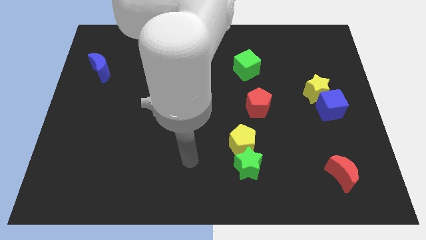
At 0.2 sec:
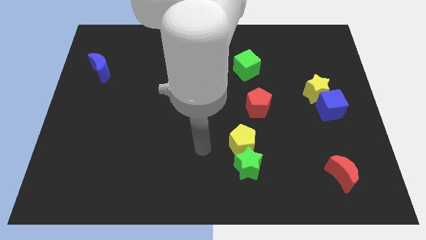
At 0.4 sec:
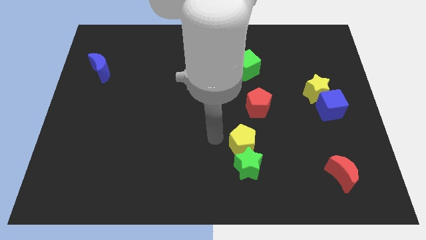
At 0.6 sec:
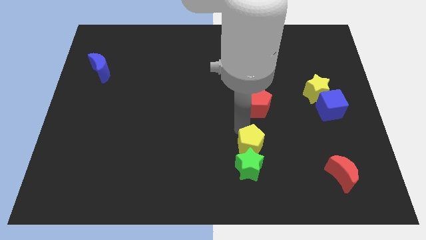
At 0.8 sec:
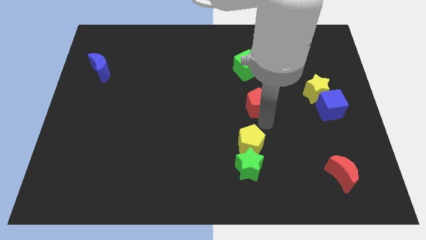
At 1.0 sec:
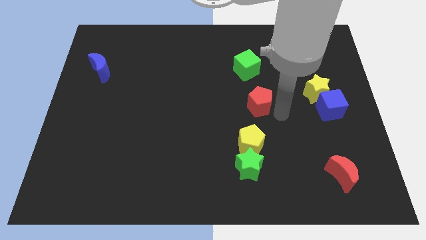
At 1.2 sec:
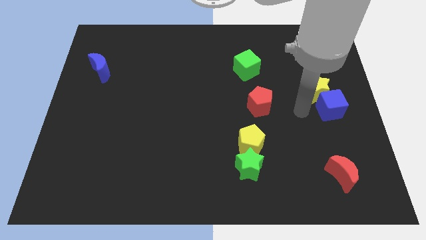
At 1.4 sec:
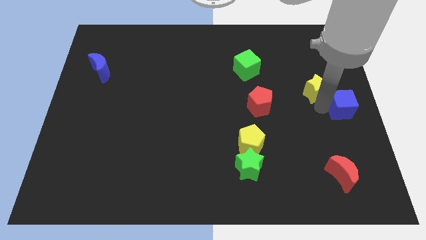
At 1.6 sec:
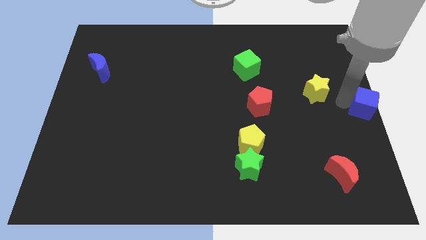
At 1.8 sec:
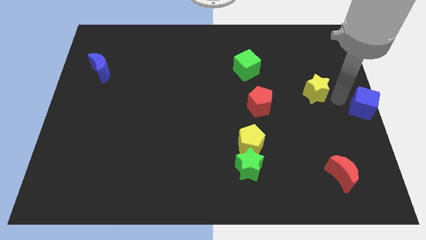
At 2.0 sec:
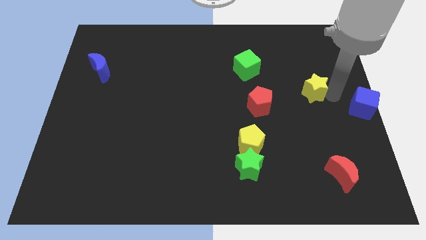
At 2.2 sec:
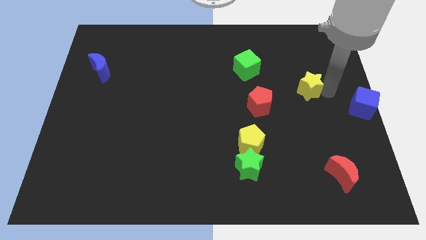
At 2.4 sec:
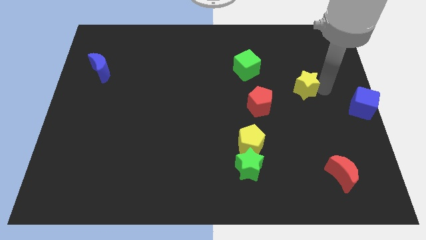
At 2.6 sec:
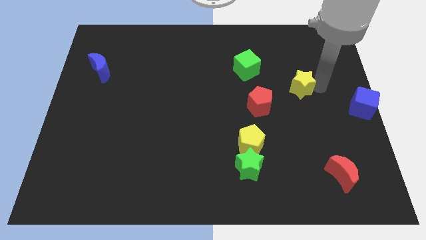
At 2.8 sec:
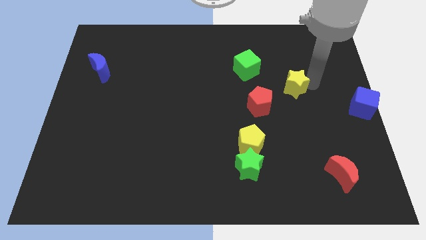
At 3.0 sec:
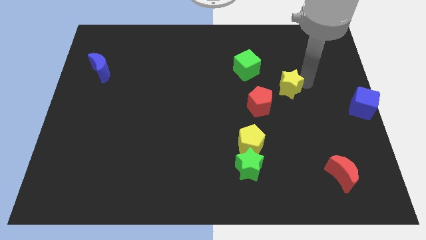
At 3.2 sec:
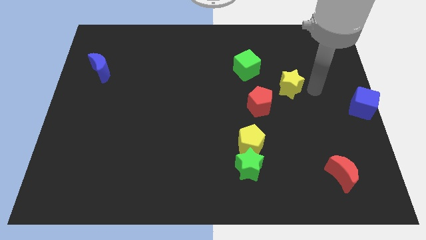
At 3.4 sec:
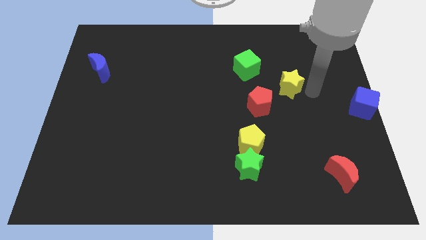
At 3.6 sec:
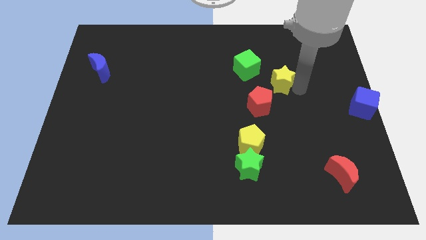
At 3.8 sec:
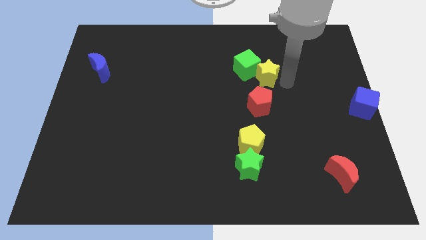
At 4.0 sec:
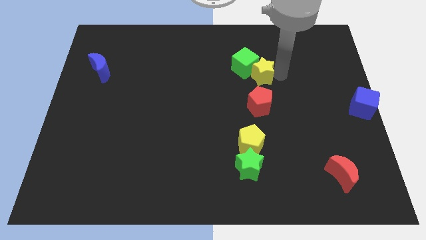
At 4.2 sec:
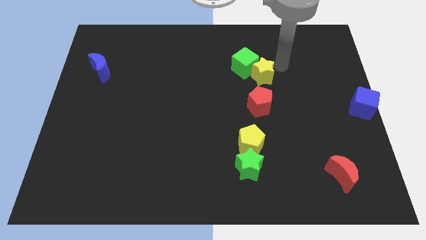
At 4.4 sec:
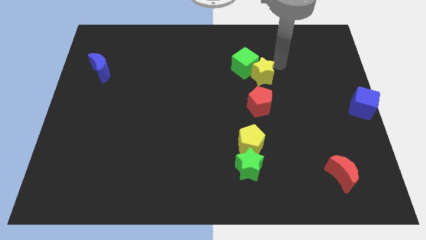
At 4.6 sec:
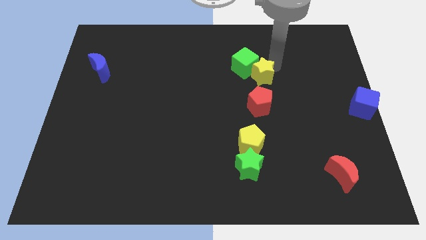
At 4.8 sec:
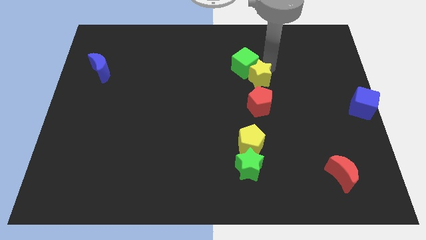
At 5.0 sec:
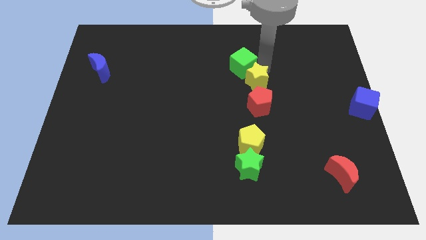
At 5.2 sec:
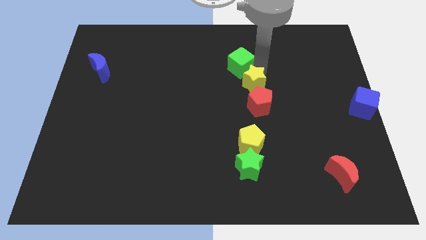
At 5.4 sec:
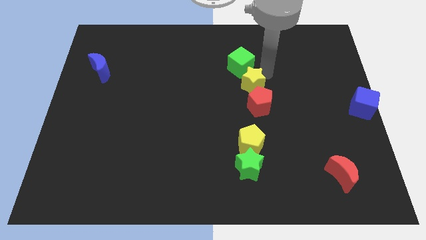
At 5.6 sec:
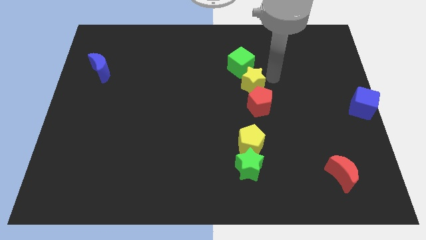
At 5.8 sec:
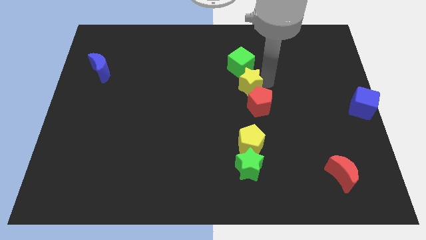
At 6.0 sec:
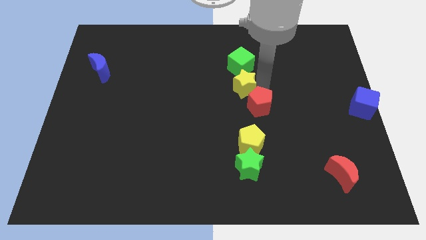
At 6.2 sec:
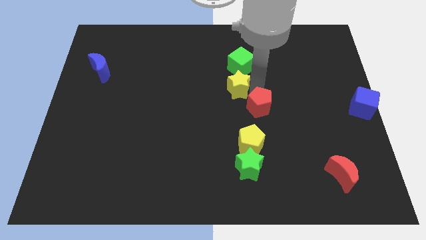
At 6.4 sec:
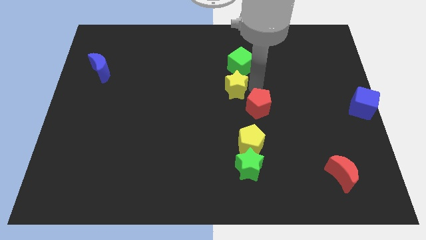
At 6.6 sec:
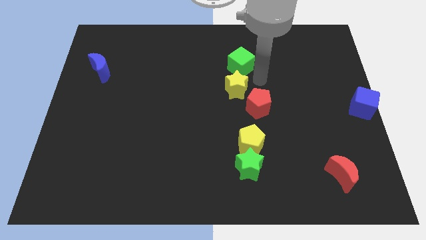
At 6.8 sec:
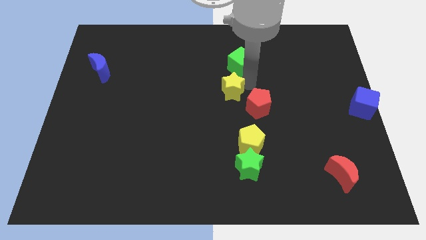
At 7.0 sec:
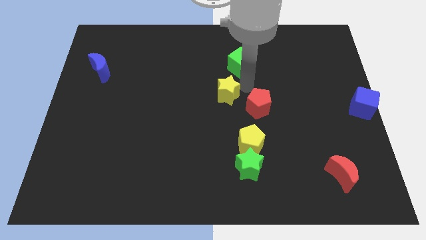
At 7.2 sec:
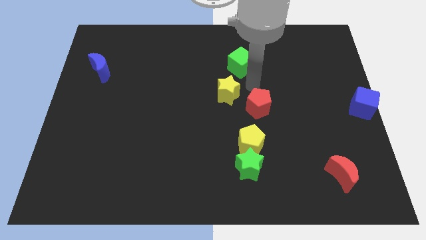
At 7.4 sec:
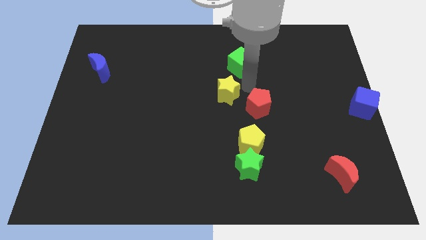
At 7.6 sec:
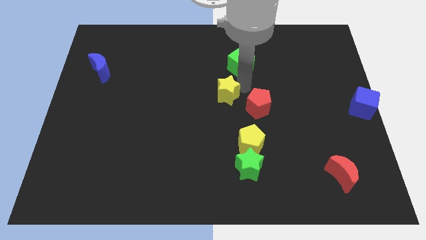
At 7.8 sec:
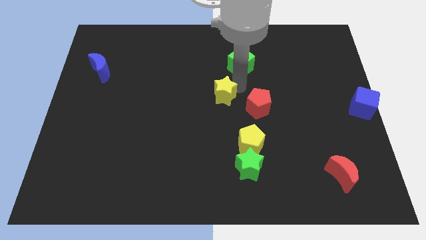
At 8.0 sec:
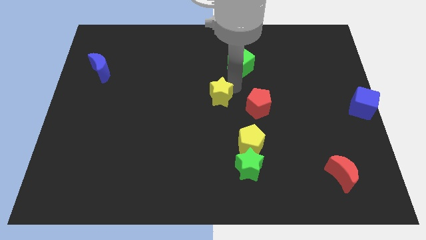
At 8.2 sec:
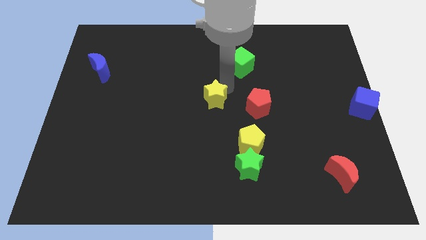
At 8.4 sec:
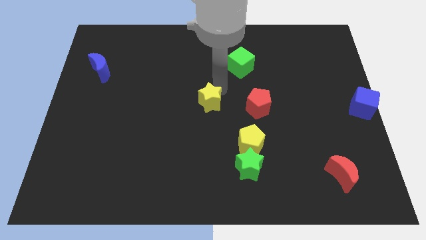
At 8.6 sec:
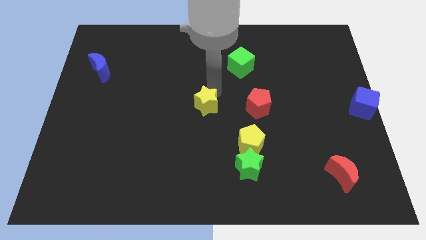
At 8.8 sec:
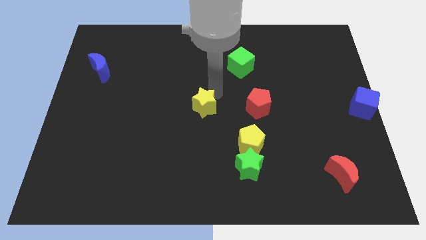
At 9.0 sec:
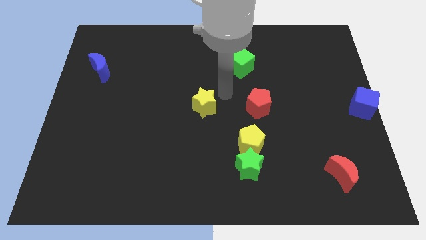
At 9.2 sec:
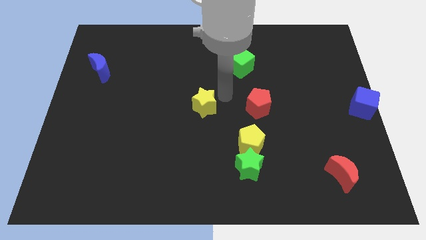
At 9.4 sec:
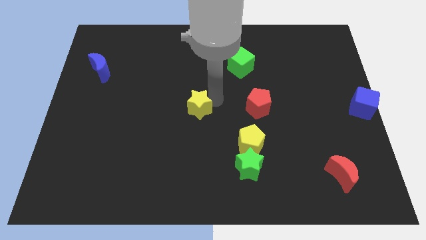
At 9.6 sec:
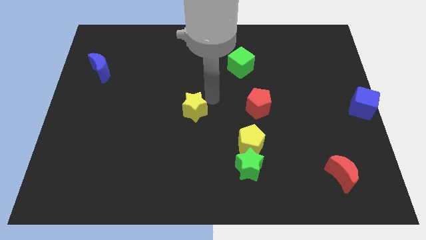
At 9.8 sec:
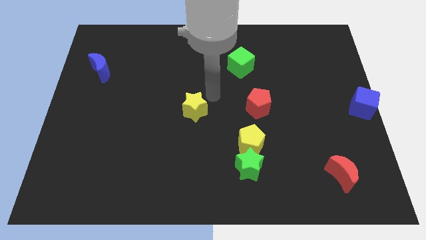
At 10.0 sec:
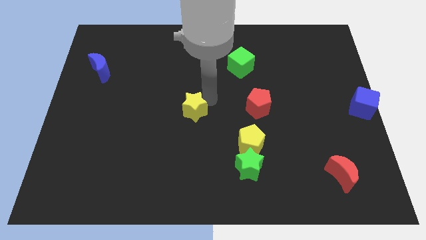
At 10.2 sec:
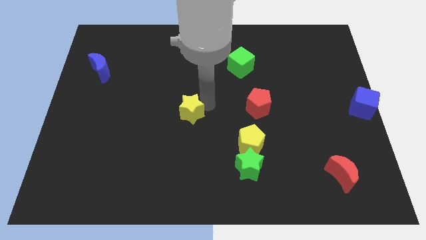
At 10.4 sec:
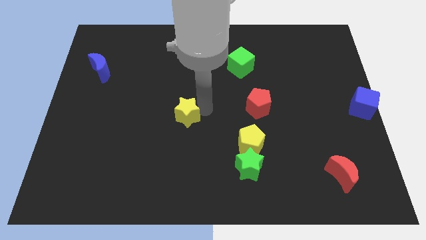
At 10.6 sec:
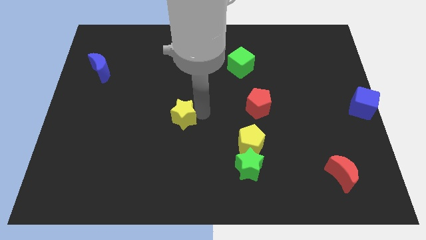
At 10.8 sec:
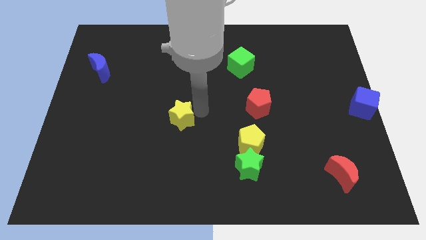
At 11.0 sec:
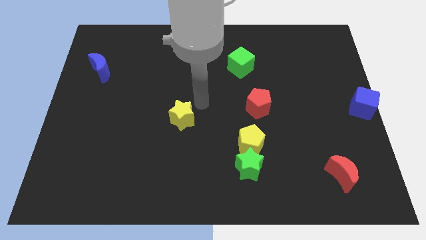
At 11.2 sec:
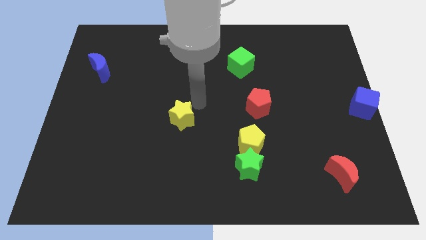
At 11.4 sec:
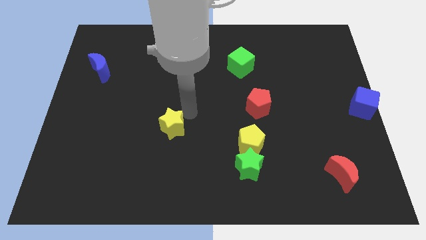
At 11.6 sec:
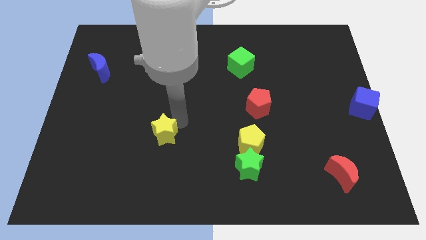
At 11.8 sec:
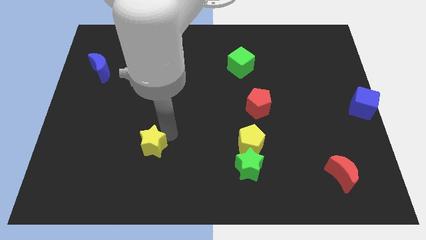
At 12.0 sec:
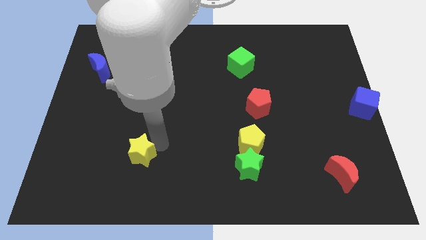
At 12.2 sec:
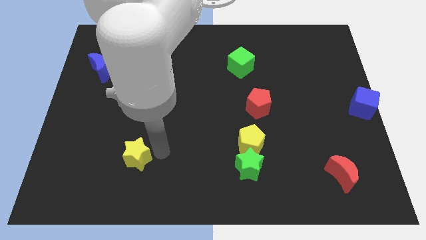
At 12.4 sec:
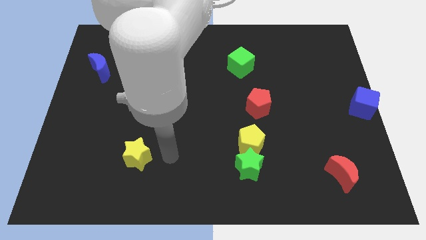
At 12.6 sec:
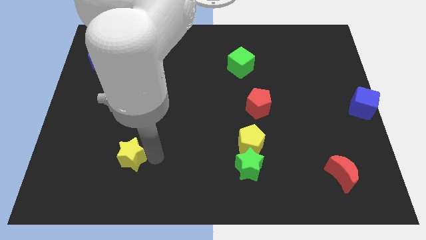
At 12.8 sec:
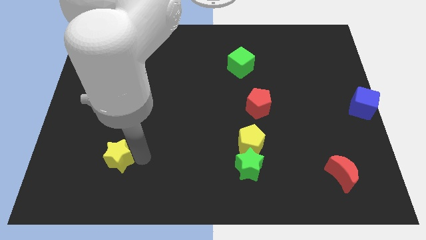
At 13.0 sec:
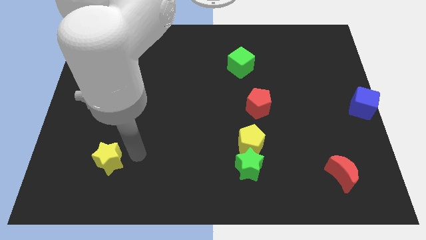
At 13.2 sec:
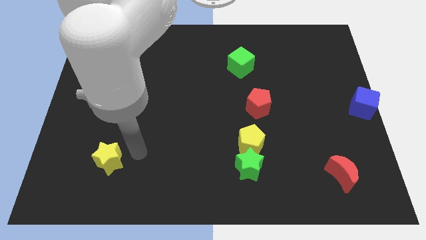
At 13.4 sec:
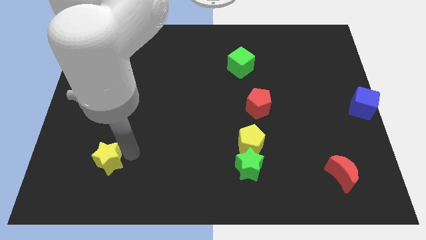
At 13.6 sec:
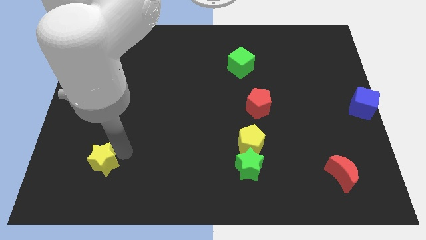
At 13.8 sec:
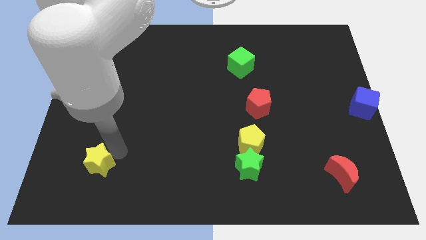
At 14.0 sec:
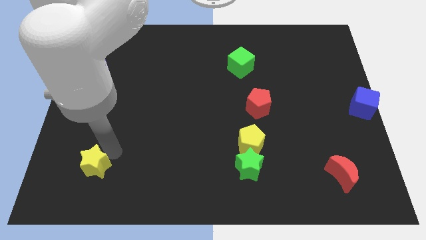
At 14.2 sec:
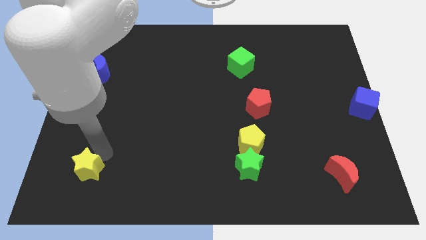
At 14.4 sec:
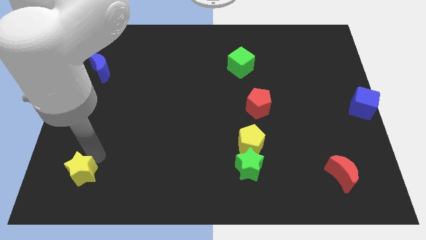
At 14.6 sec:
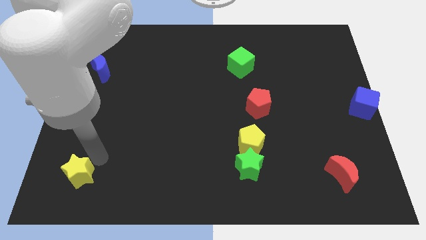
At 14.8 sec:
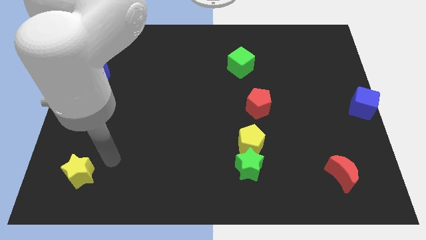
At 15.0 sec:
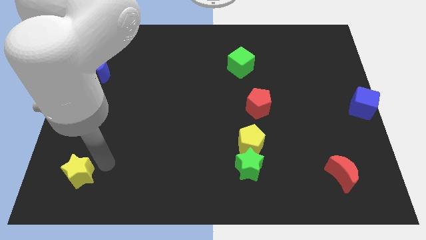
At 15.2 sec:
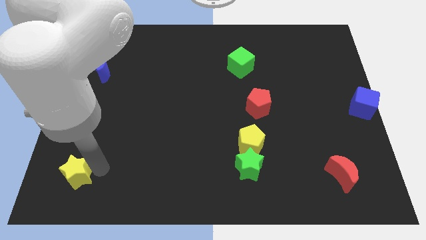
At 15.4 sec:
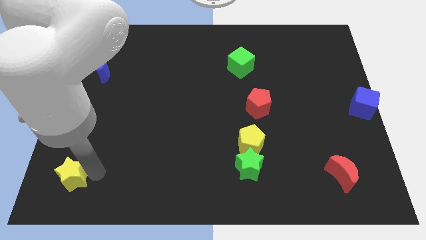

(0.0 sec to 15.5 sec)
put the yellow star to the bottom left
